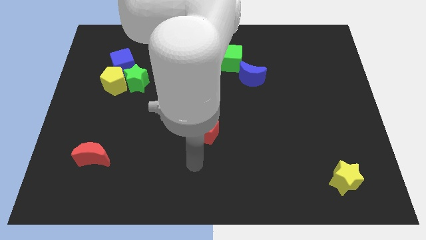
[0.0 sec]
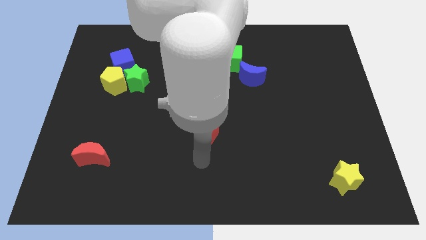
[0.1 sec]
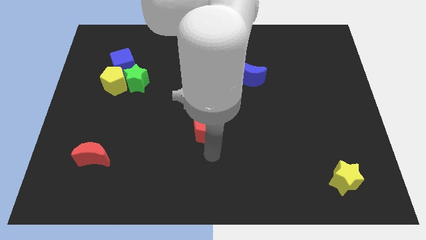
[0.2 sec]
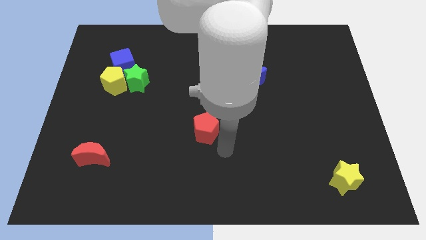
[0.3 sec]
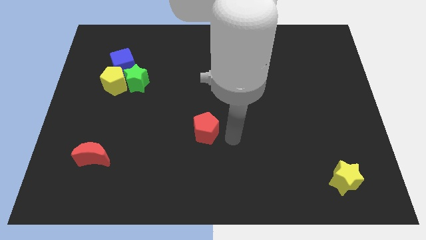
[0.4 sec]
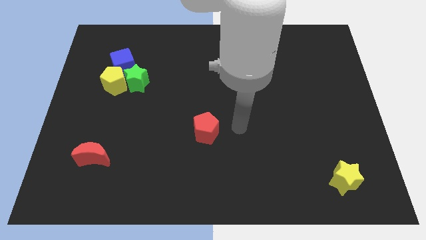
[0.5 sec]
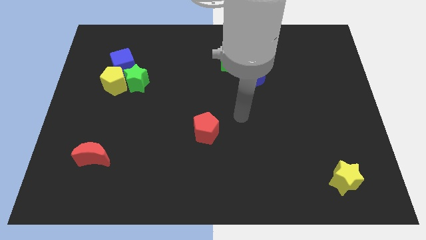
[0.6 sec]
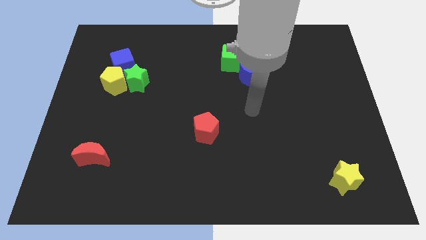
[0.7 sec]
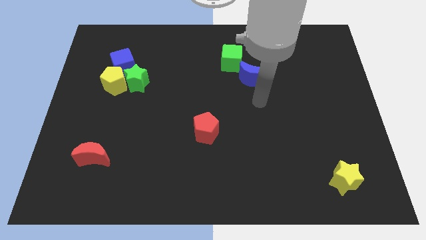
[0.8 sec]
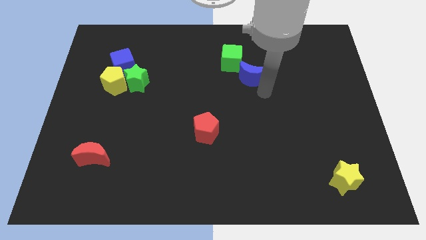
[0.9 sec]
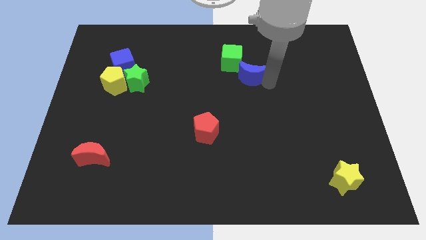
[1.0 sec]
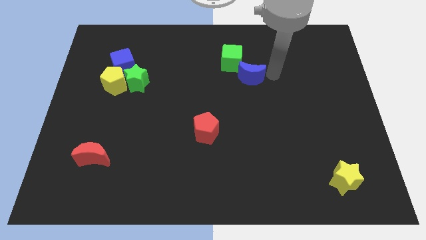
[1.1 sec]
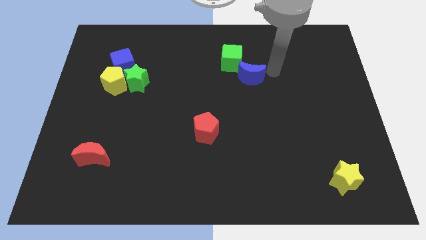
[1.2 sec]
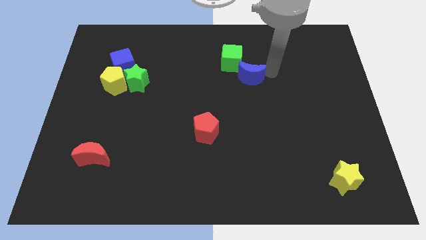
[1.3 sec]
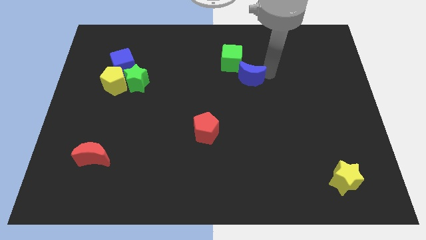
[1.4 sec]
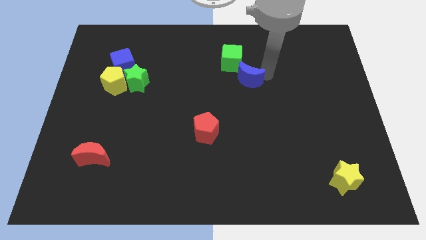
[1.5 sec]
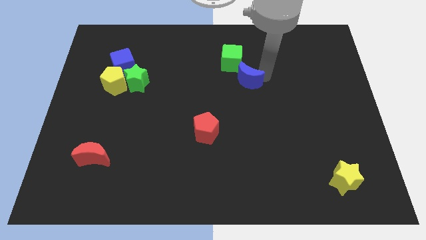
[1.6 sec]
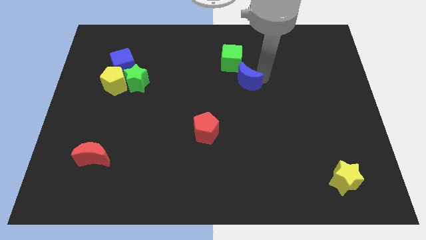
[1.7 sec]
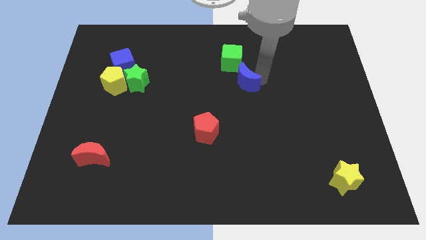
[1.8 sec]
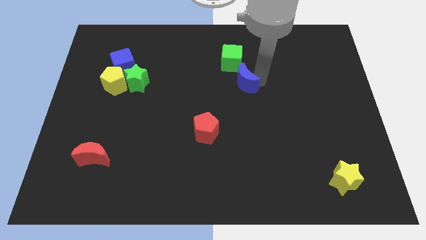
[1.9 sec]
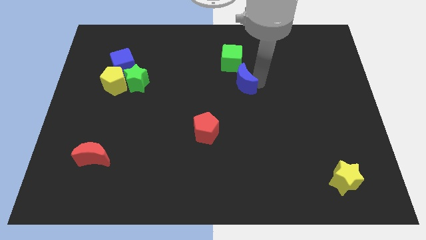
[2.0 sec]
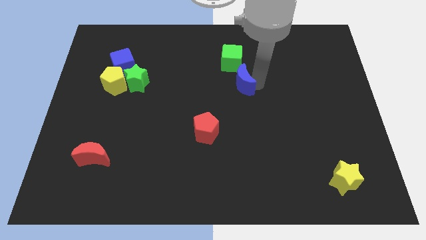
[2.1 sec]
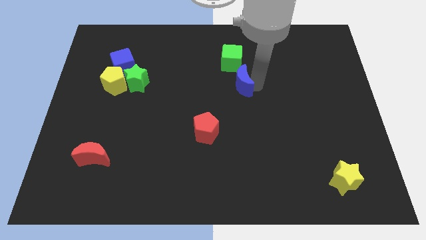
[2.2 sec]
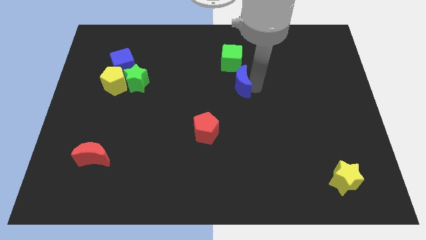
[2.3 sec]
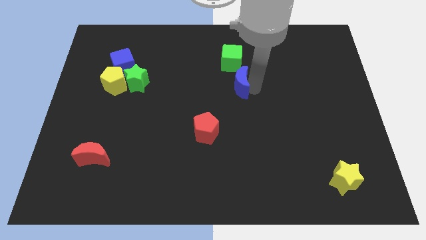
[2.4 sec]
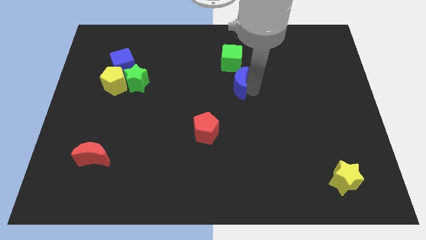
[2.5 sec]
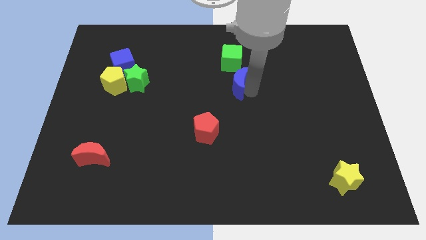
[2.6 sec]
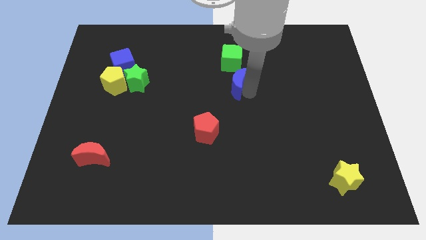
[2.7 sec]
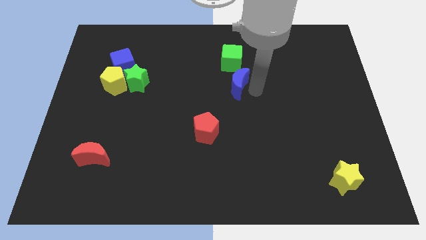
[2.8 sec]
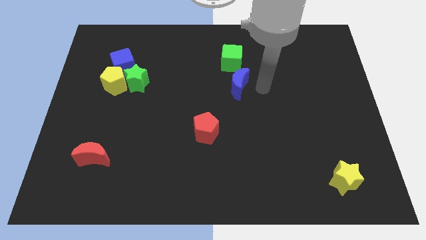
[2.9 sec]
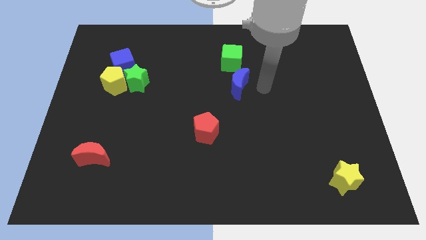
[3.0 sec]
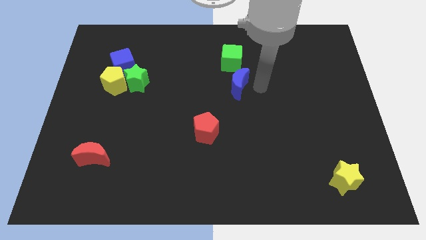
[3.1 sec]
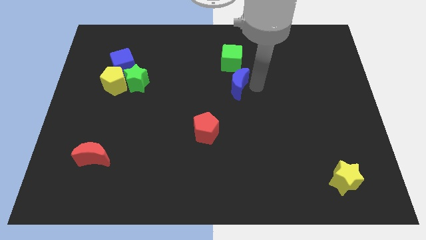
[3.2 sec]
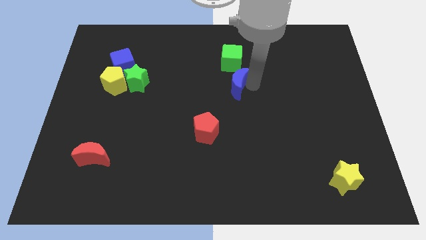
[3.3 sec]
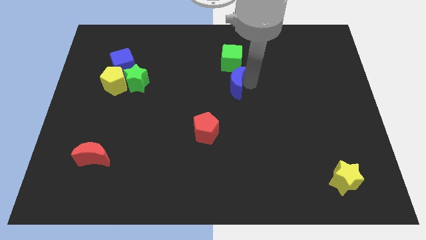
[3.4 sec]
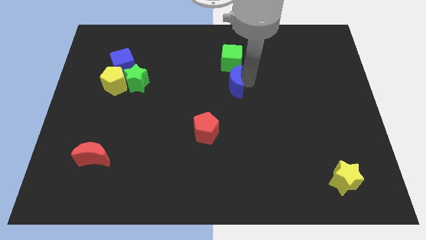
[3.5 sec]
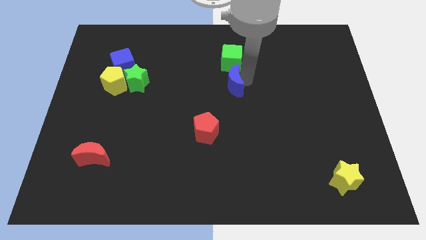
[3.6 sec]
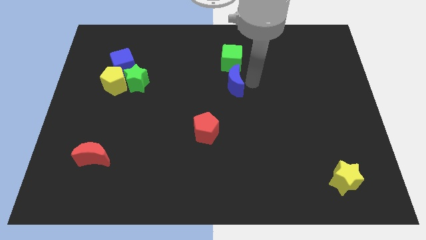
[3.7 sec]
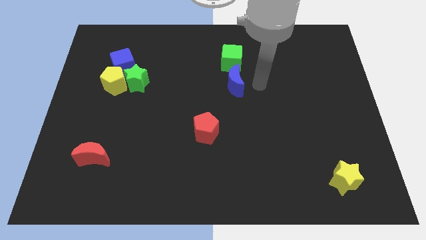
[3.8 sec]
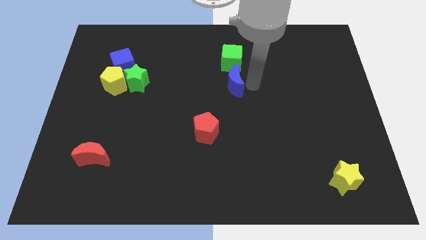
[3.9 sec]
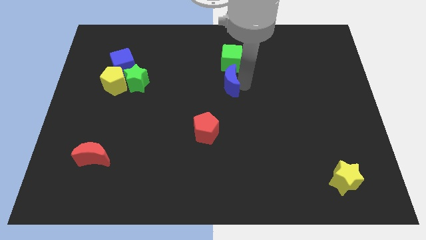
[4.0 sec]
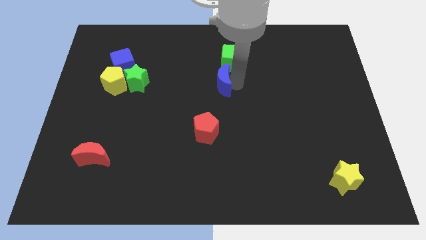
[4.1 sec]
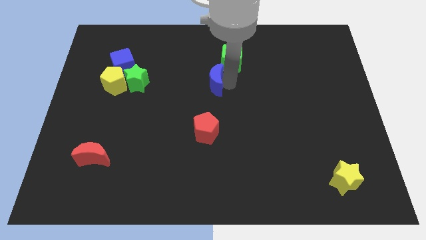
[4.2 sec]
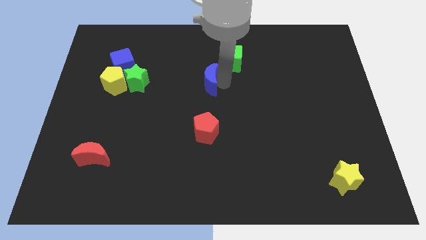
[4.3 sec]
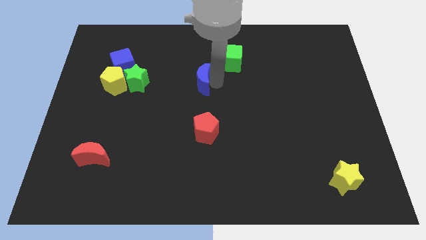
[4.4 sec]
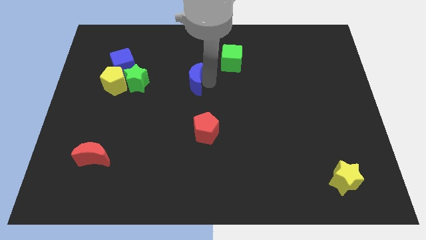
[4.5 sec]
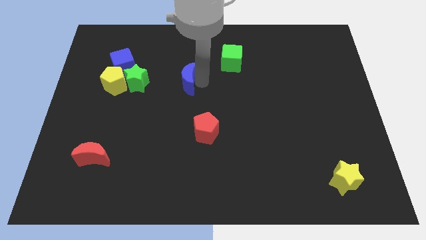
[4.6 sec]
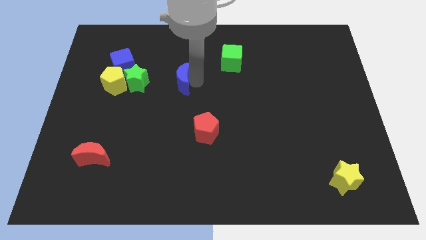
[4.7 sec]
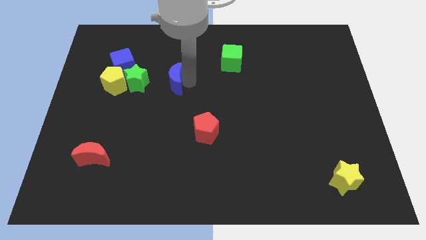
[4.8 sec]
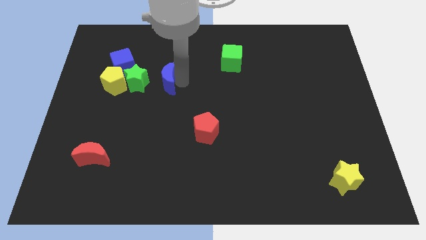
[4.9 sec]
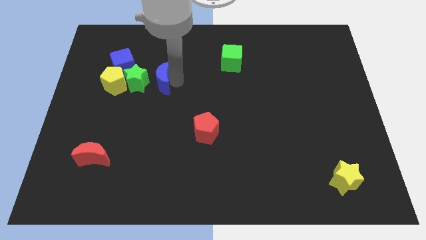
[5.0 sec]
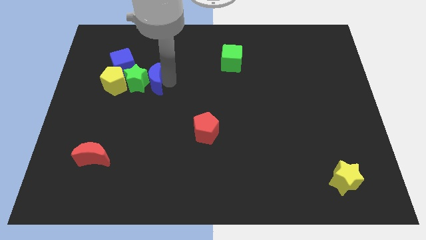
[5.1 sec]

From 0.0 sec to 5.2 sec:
move the blue moon to the green star

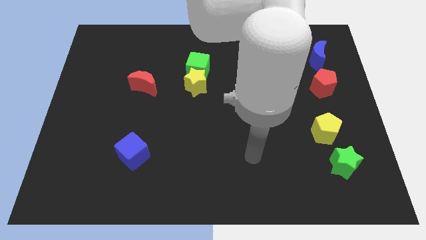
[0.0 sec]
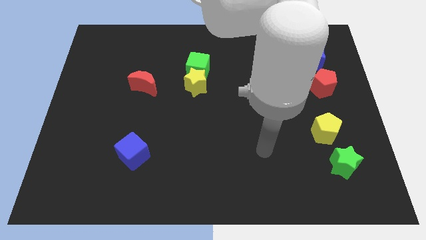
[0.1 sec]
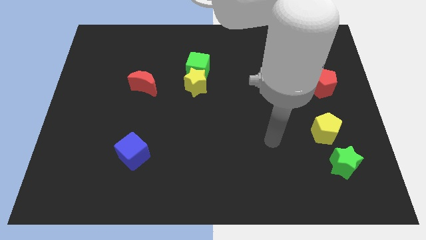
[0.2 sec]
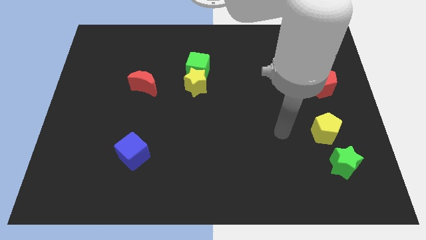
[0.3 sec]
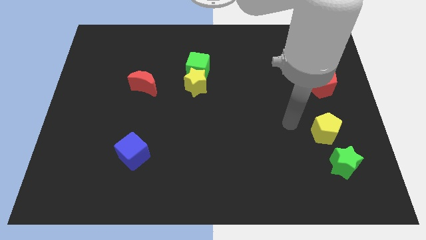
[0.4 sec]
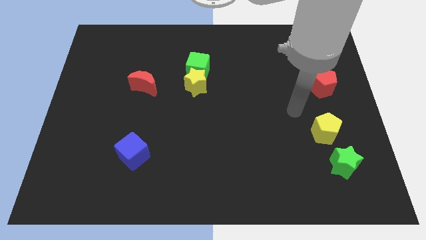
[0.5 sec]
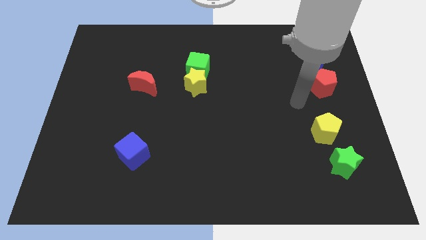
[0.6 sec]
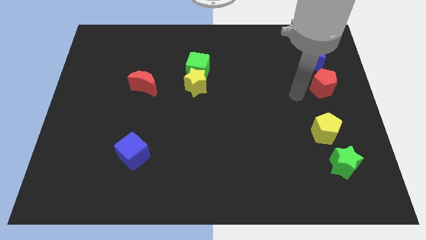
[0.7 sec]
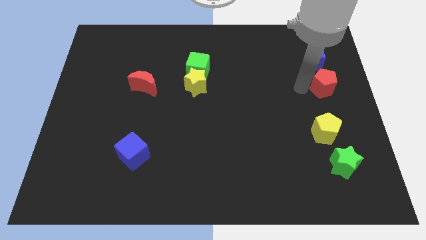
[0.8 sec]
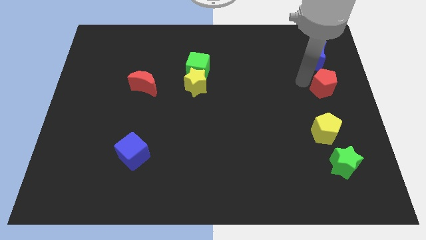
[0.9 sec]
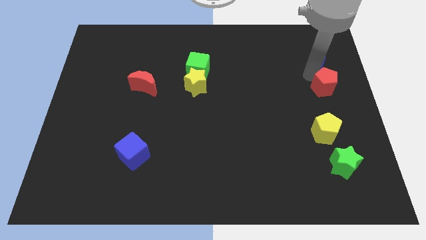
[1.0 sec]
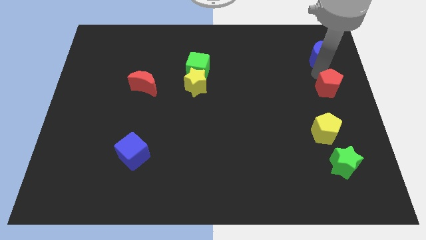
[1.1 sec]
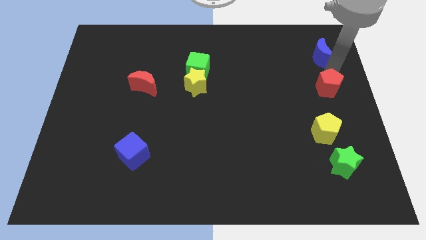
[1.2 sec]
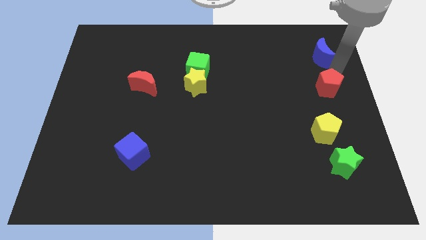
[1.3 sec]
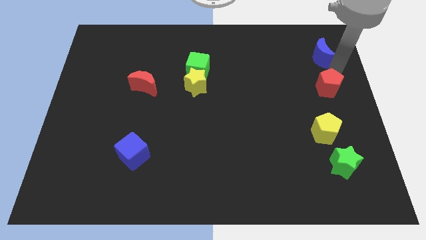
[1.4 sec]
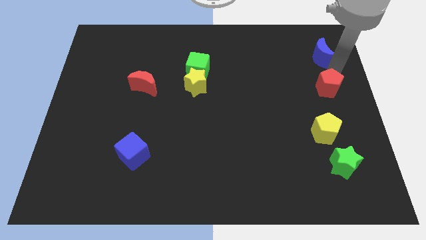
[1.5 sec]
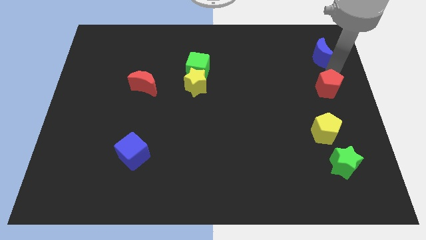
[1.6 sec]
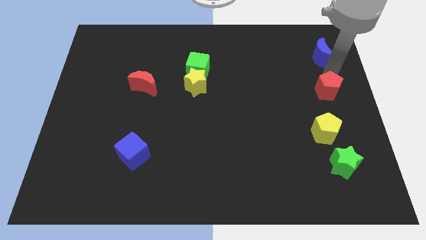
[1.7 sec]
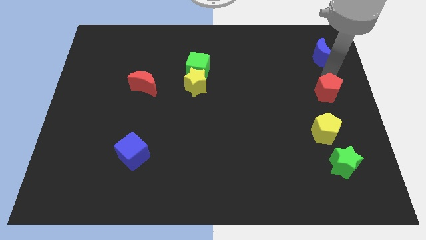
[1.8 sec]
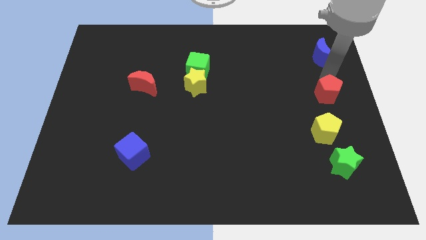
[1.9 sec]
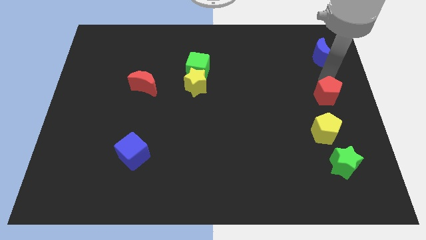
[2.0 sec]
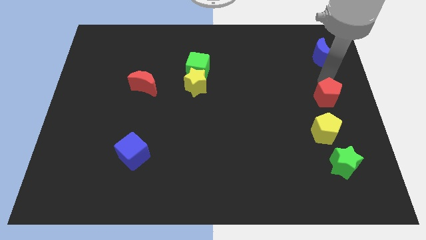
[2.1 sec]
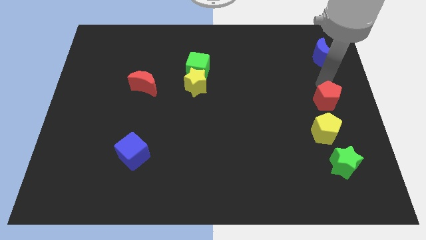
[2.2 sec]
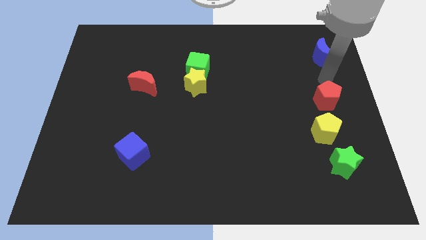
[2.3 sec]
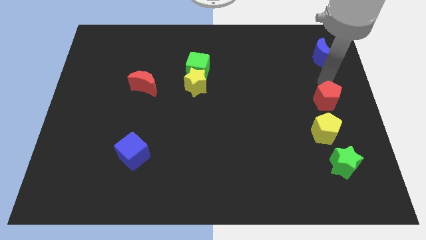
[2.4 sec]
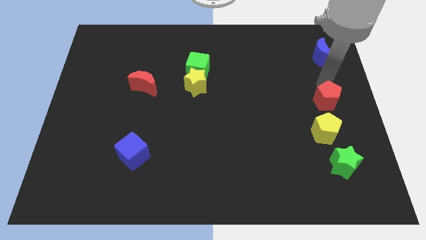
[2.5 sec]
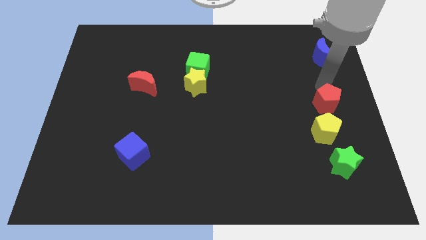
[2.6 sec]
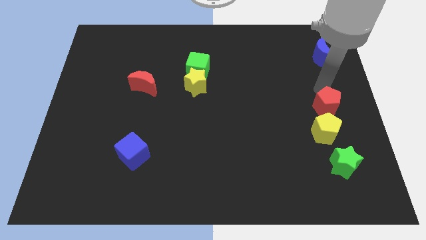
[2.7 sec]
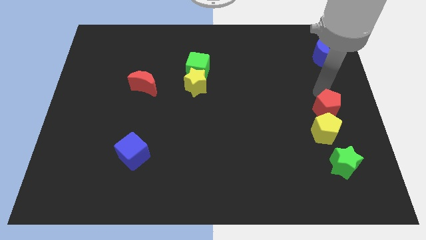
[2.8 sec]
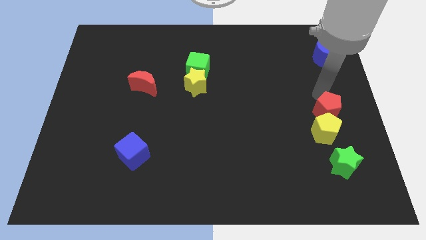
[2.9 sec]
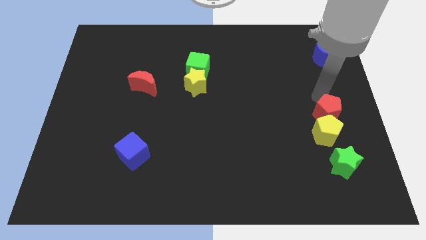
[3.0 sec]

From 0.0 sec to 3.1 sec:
push the red pentagon close to the yellow pentagon
